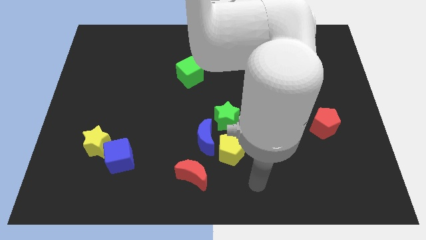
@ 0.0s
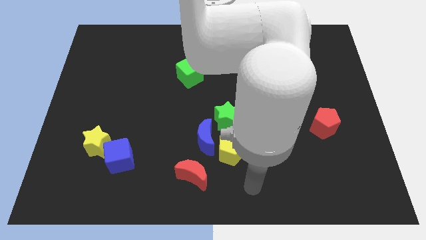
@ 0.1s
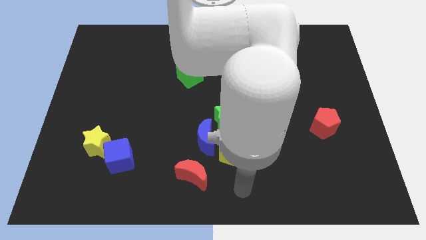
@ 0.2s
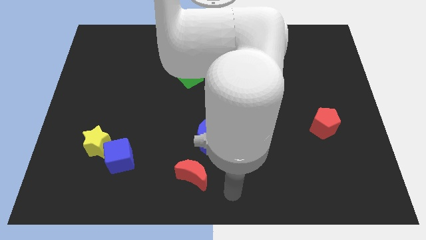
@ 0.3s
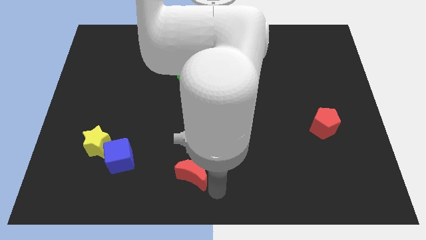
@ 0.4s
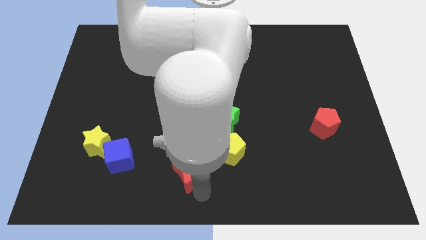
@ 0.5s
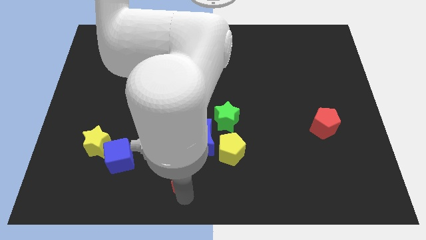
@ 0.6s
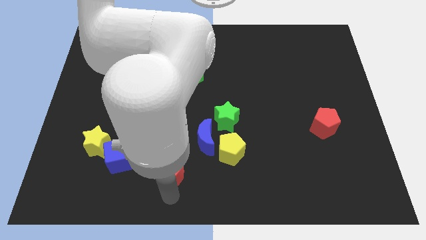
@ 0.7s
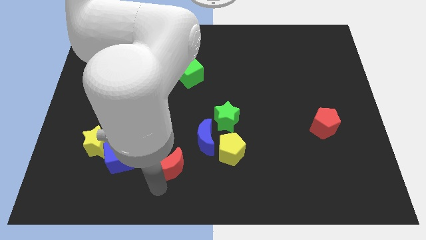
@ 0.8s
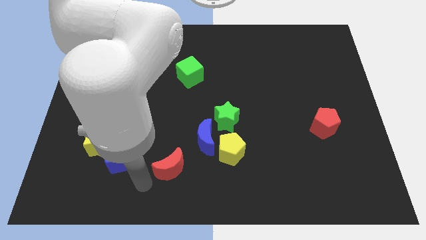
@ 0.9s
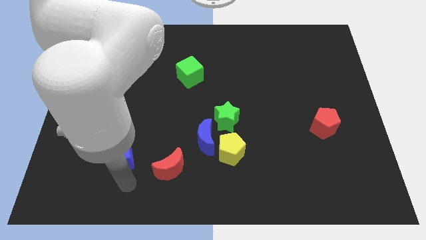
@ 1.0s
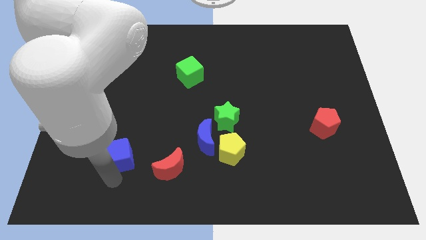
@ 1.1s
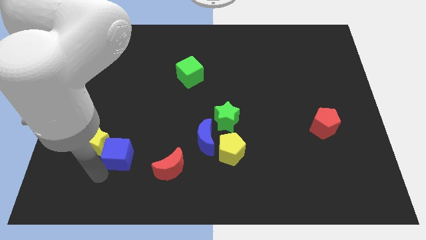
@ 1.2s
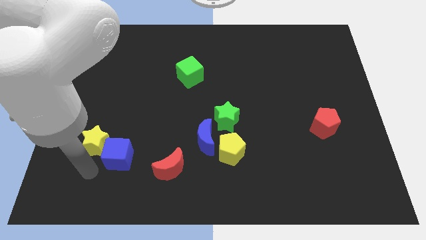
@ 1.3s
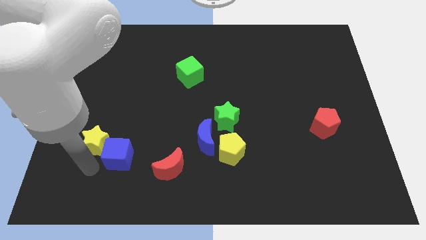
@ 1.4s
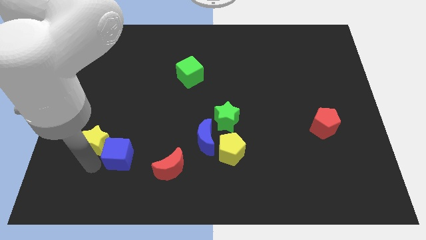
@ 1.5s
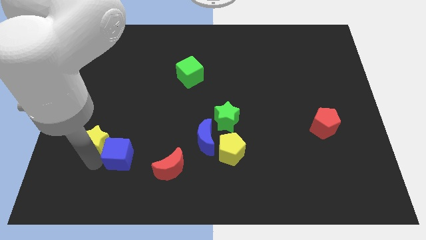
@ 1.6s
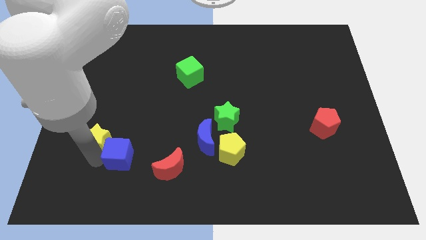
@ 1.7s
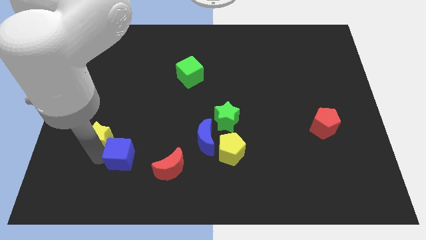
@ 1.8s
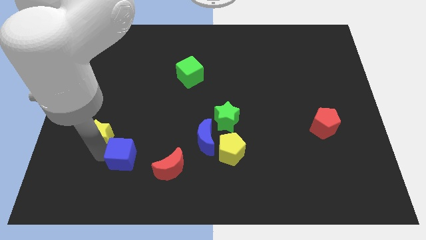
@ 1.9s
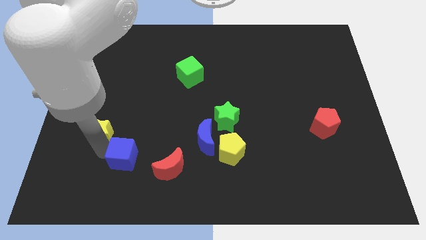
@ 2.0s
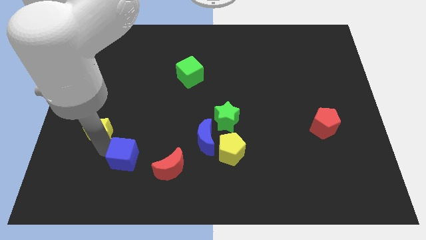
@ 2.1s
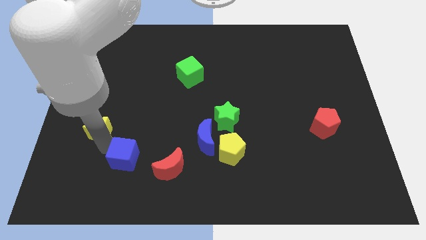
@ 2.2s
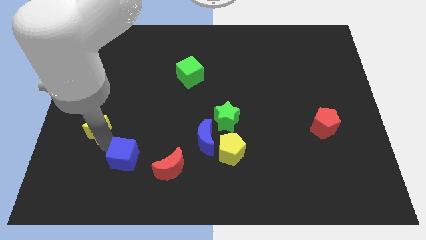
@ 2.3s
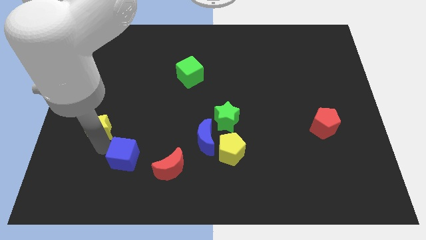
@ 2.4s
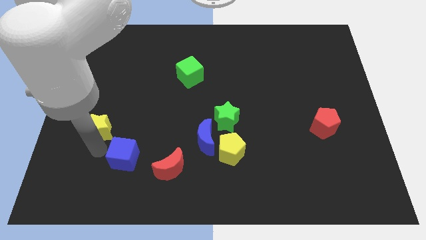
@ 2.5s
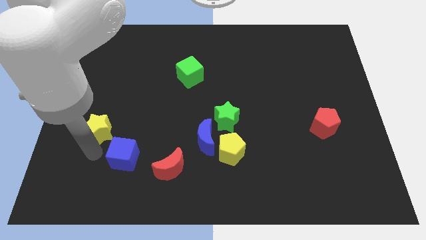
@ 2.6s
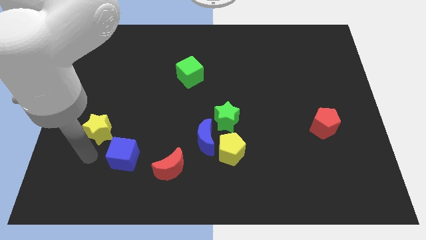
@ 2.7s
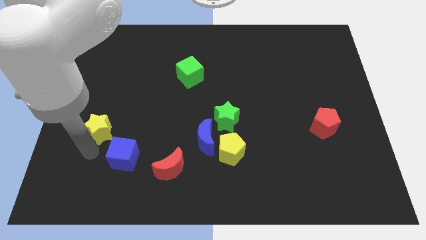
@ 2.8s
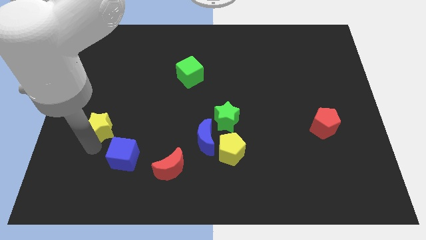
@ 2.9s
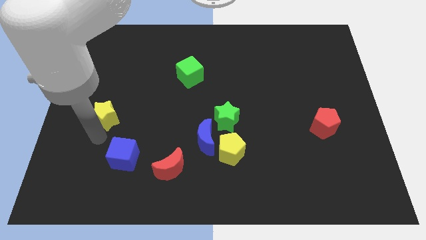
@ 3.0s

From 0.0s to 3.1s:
slightly push the yellow star upwards

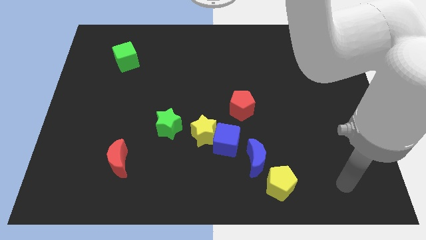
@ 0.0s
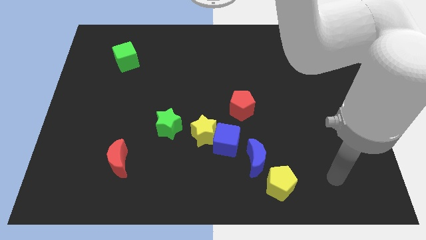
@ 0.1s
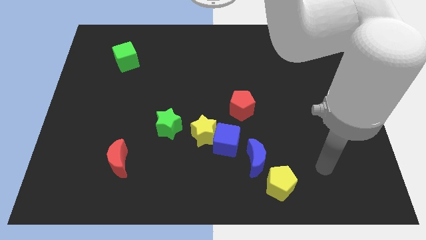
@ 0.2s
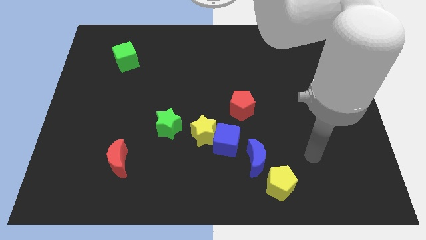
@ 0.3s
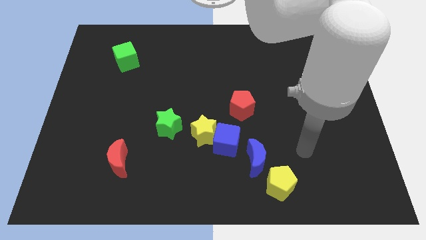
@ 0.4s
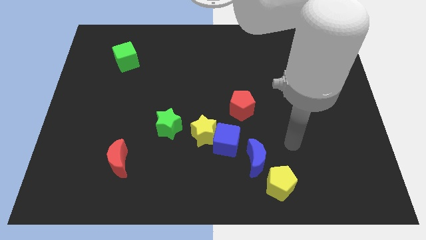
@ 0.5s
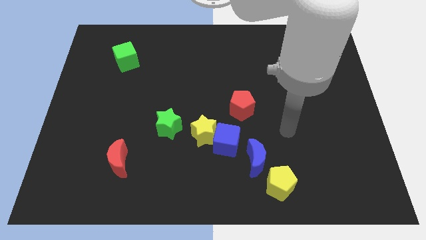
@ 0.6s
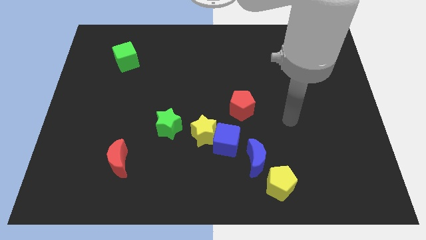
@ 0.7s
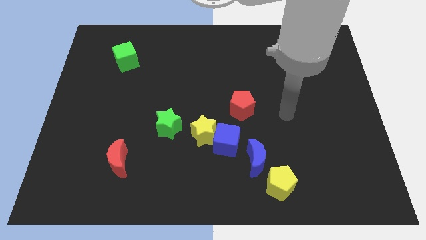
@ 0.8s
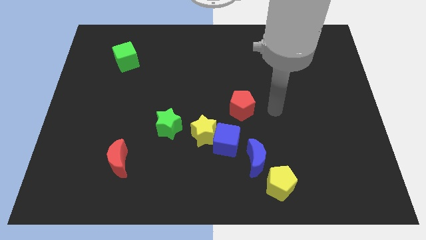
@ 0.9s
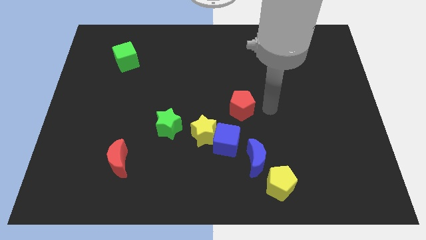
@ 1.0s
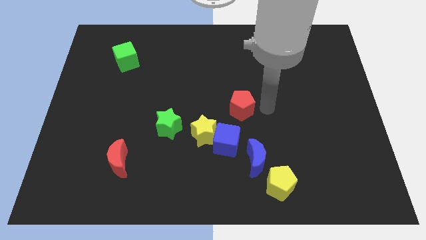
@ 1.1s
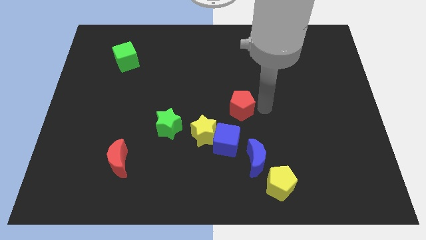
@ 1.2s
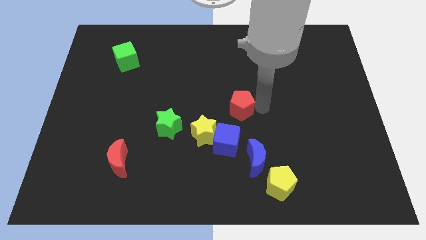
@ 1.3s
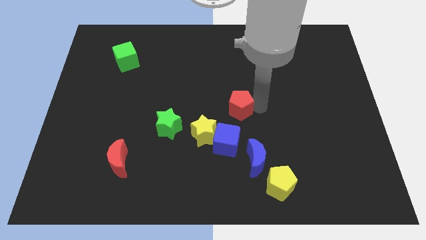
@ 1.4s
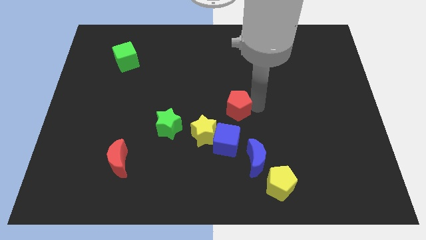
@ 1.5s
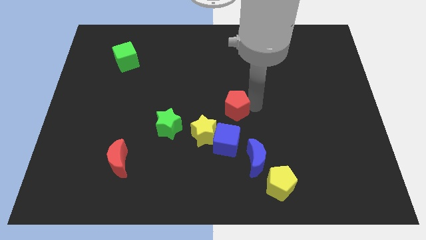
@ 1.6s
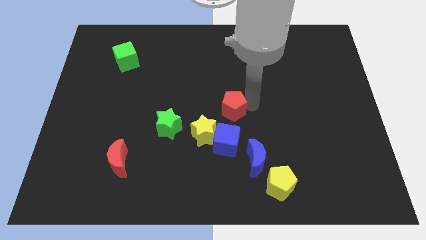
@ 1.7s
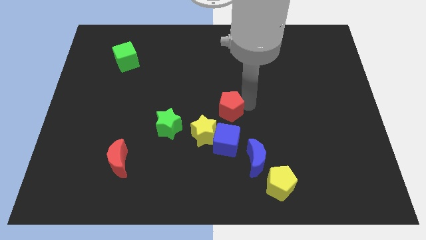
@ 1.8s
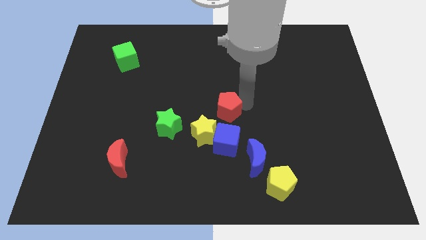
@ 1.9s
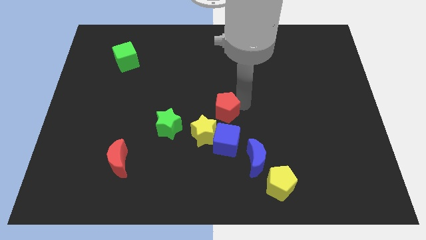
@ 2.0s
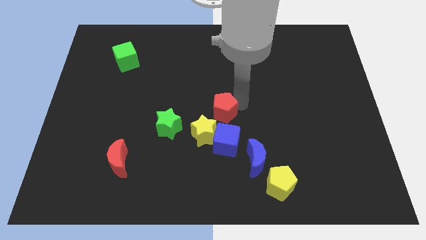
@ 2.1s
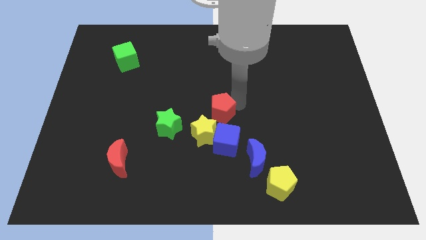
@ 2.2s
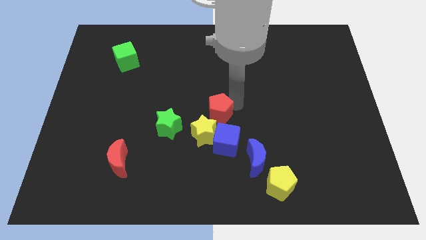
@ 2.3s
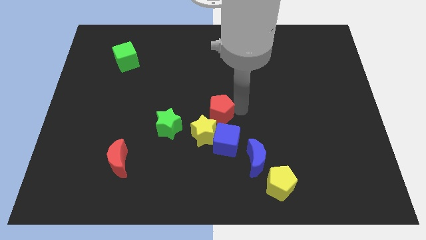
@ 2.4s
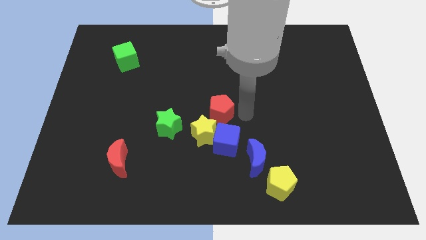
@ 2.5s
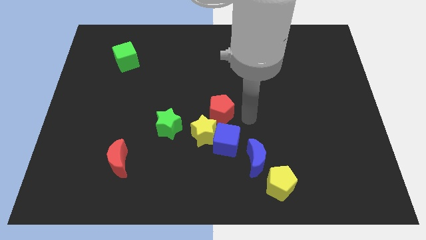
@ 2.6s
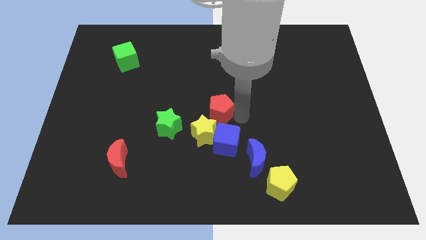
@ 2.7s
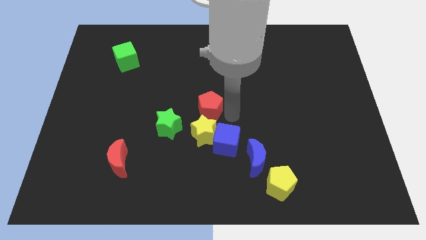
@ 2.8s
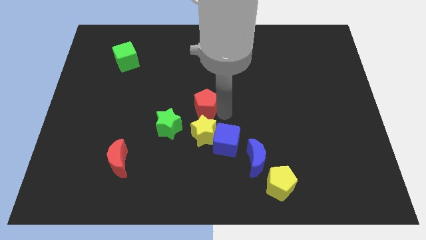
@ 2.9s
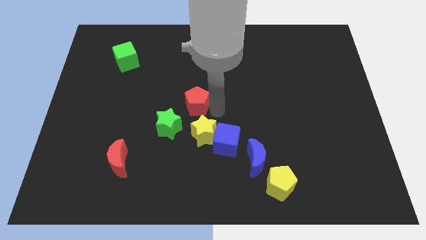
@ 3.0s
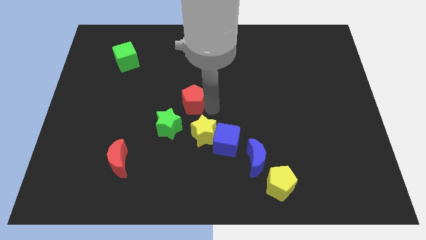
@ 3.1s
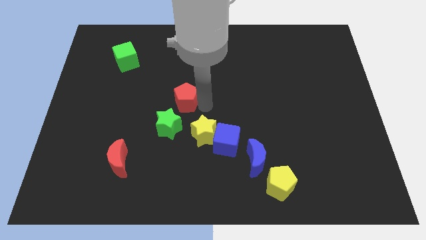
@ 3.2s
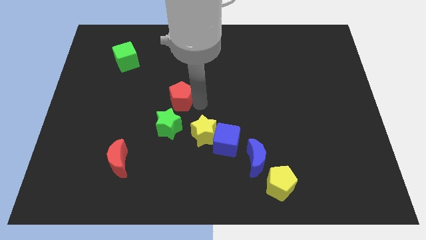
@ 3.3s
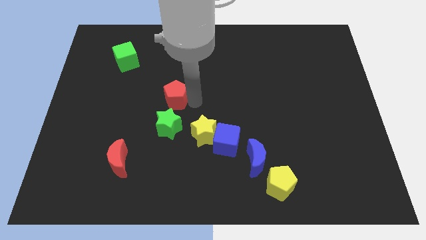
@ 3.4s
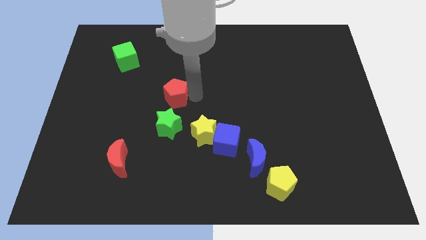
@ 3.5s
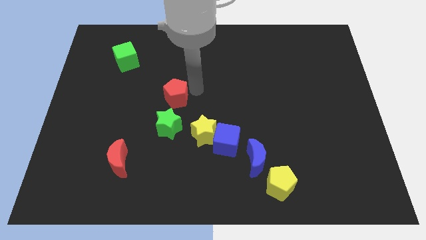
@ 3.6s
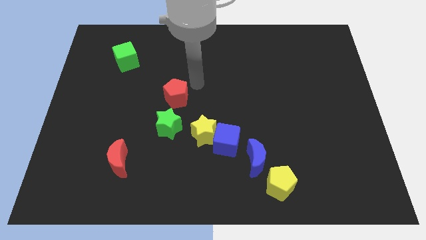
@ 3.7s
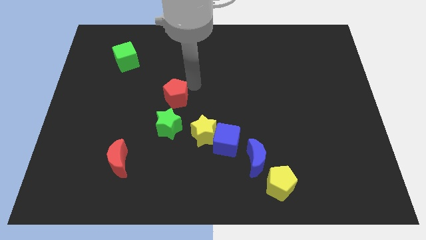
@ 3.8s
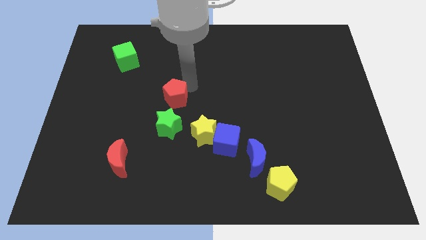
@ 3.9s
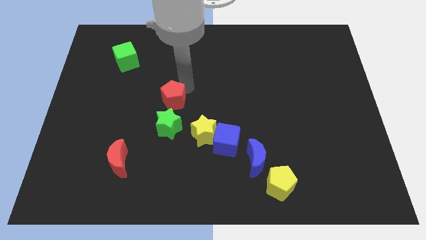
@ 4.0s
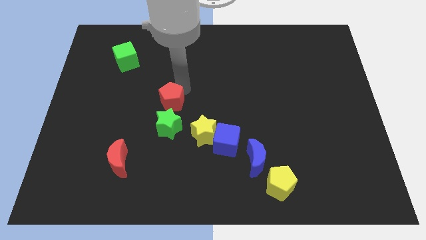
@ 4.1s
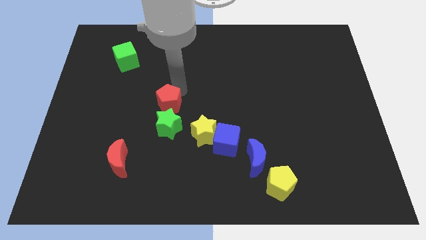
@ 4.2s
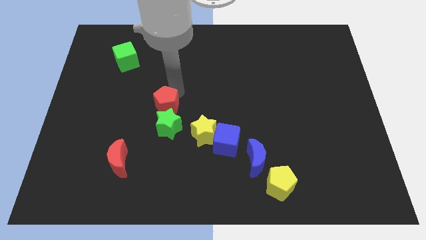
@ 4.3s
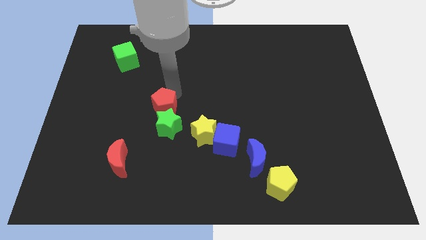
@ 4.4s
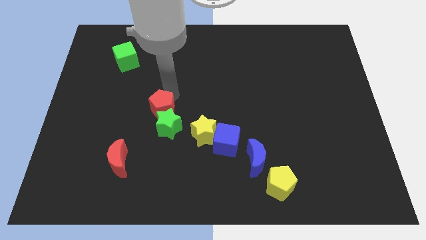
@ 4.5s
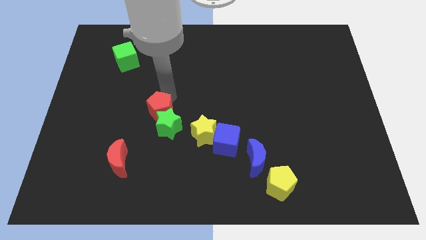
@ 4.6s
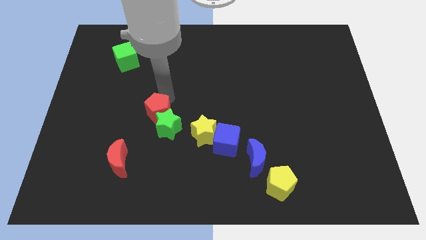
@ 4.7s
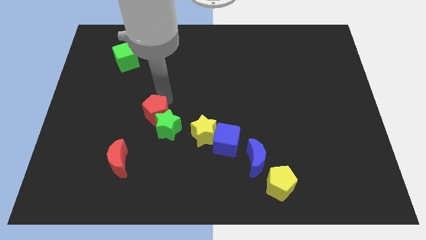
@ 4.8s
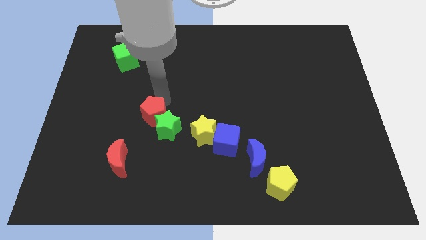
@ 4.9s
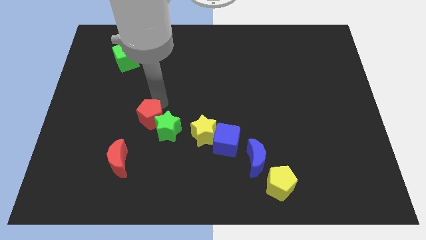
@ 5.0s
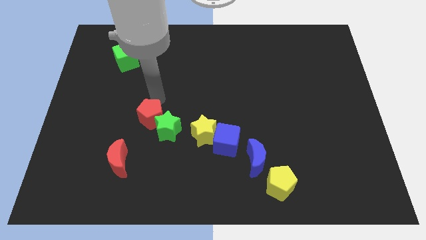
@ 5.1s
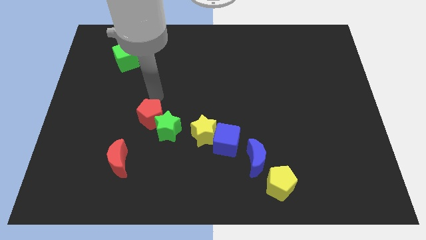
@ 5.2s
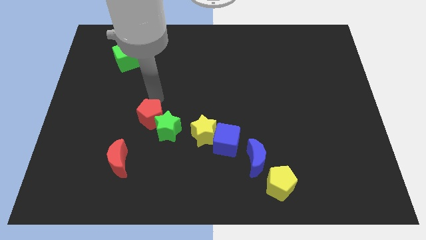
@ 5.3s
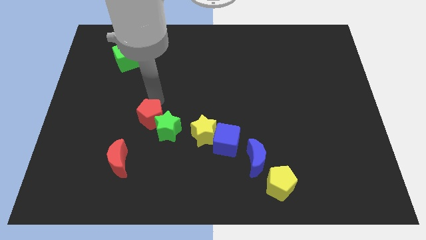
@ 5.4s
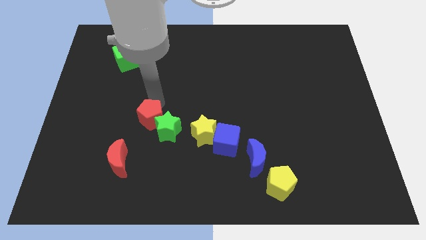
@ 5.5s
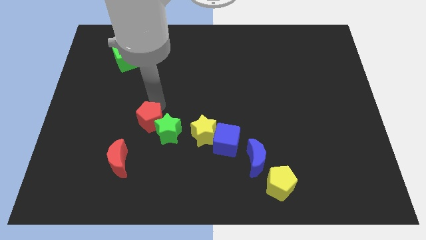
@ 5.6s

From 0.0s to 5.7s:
slightly push the red pentagon down and then left
